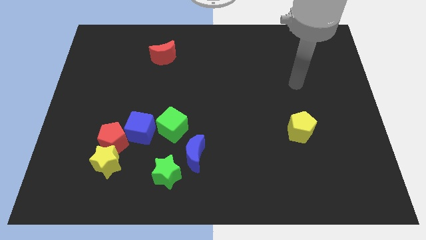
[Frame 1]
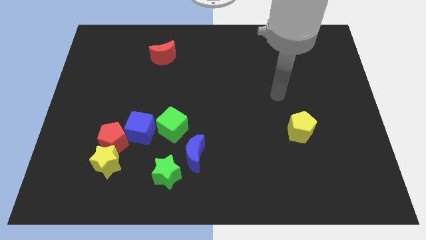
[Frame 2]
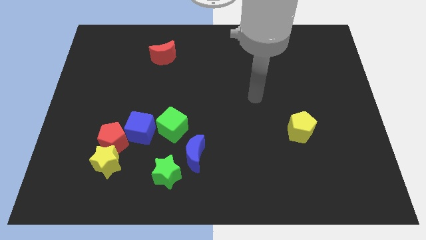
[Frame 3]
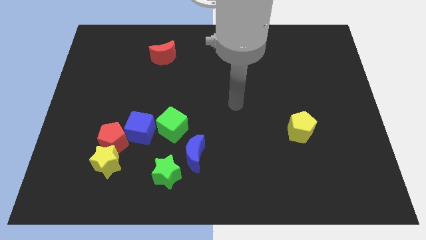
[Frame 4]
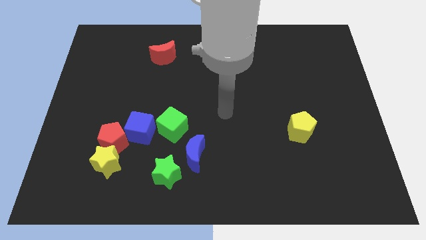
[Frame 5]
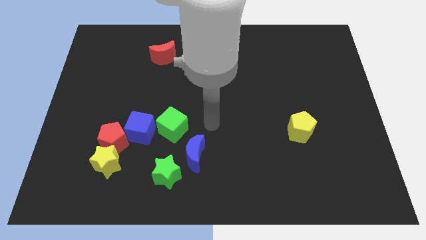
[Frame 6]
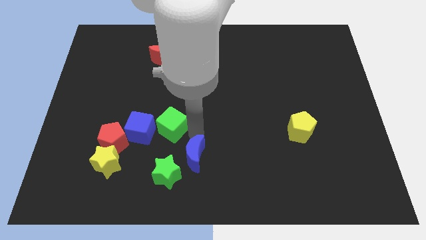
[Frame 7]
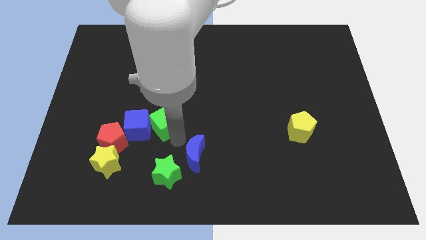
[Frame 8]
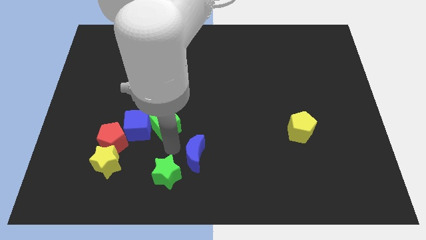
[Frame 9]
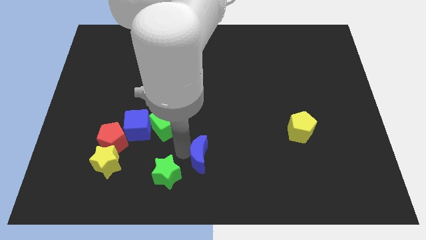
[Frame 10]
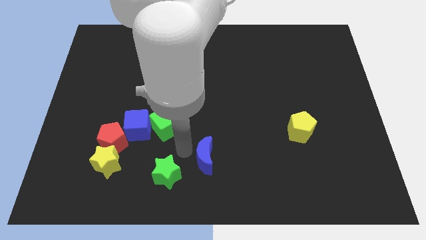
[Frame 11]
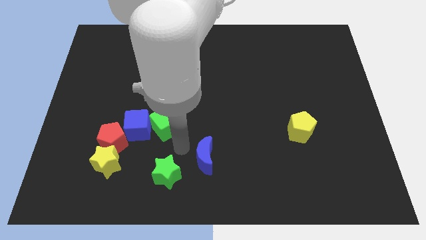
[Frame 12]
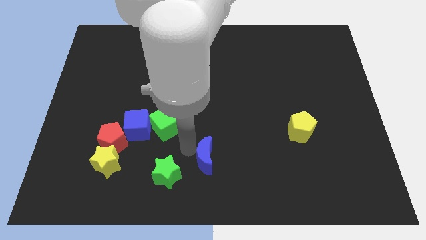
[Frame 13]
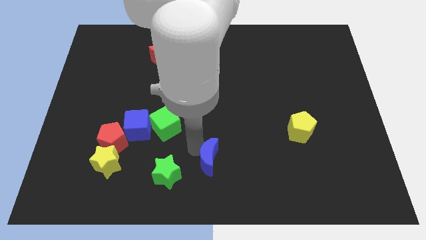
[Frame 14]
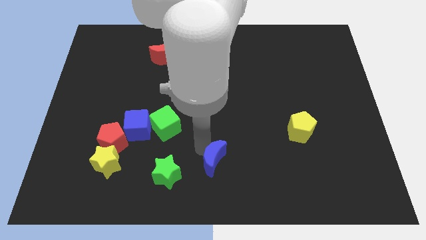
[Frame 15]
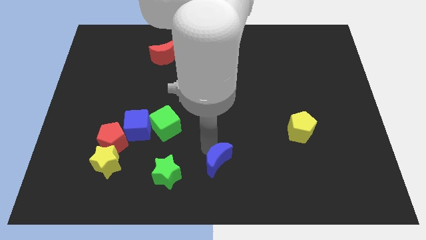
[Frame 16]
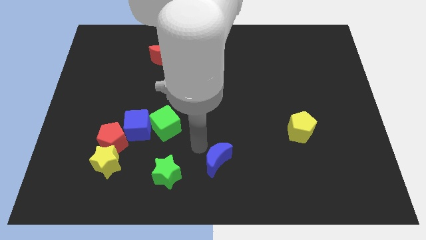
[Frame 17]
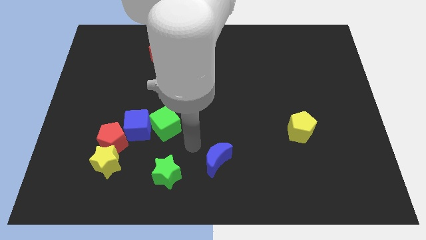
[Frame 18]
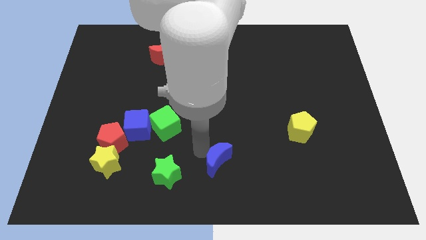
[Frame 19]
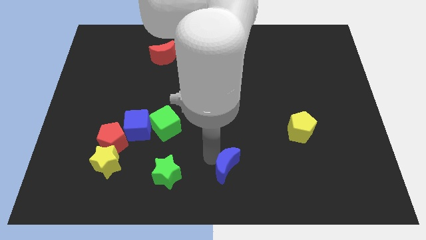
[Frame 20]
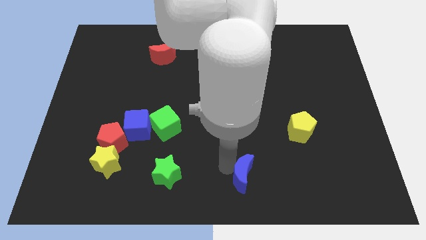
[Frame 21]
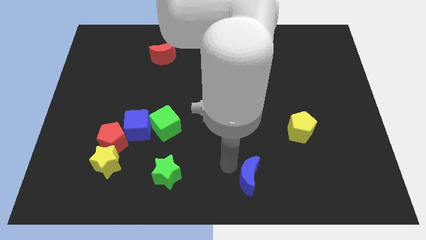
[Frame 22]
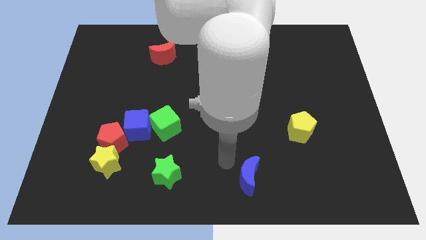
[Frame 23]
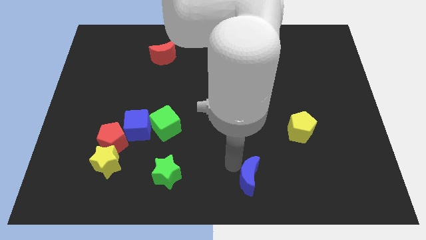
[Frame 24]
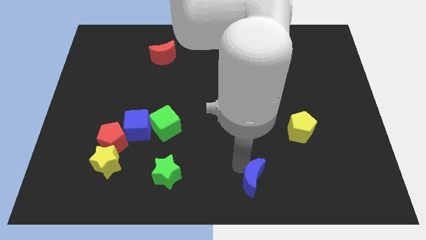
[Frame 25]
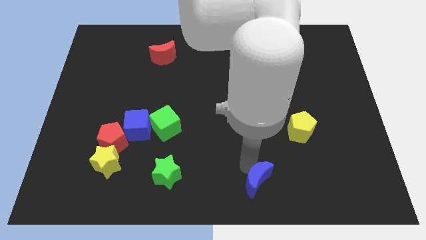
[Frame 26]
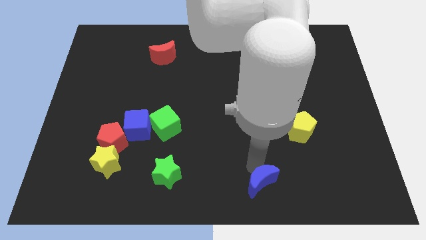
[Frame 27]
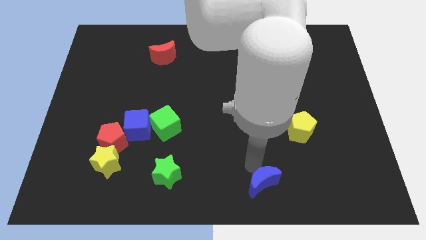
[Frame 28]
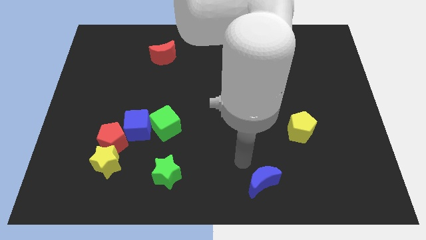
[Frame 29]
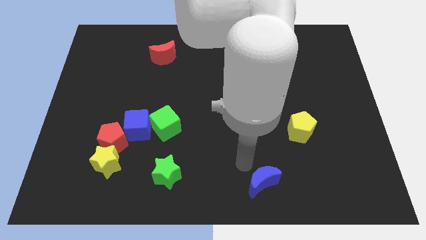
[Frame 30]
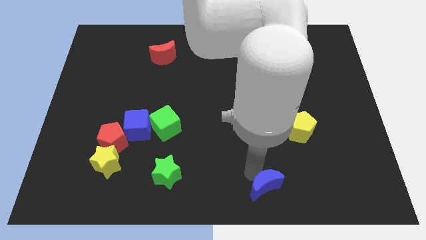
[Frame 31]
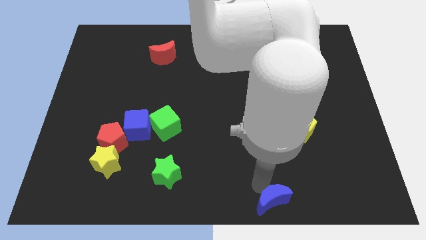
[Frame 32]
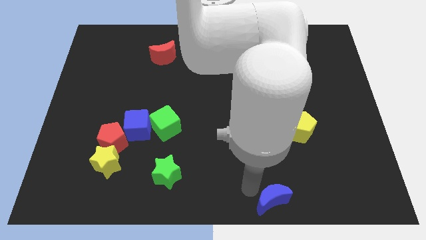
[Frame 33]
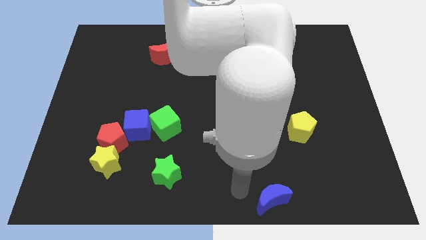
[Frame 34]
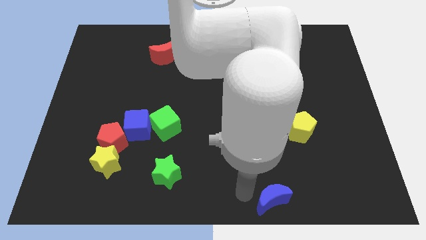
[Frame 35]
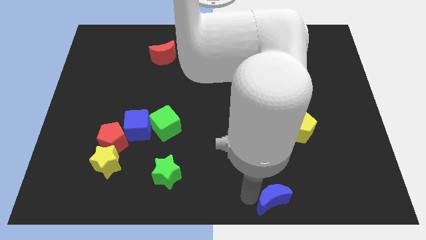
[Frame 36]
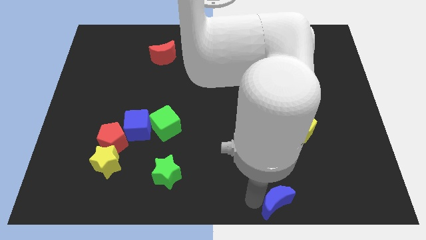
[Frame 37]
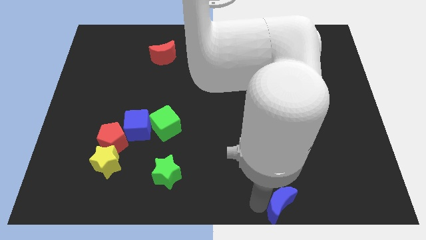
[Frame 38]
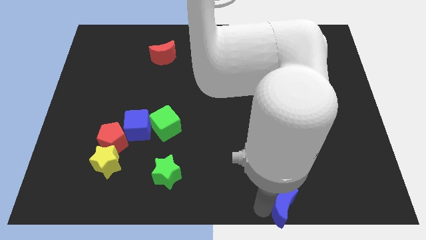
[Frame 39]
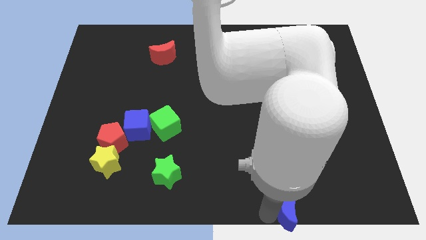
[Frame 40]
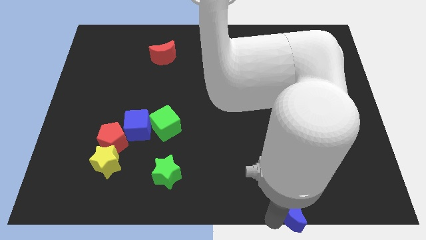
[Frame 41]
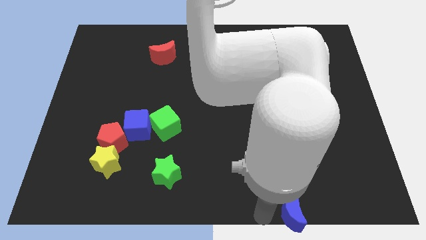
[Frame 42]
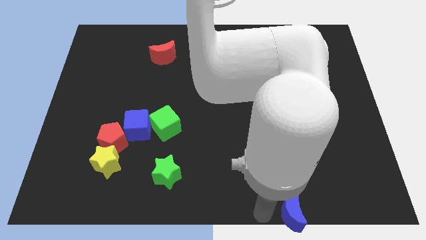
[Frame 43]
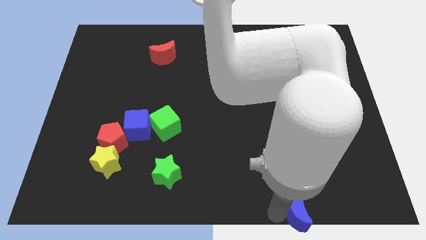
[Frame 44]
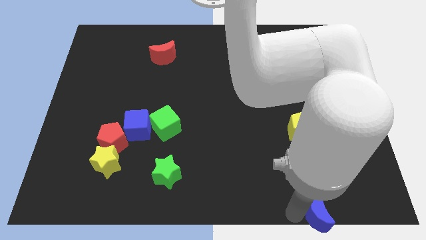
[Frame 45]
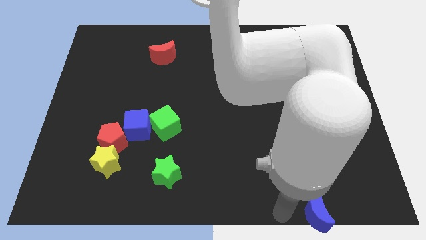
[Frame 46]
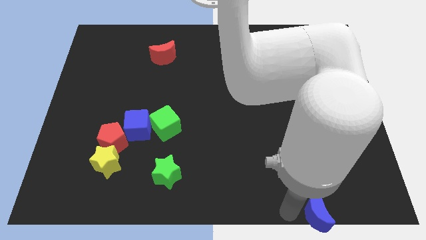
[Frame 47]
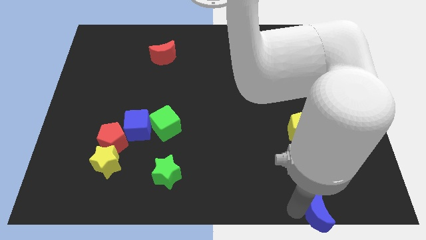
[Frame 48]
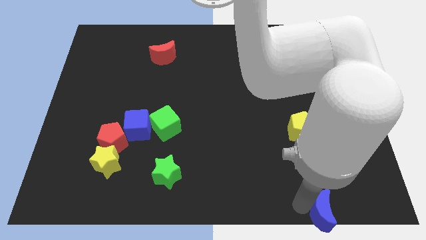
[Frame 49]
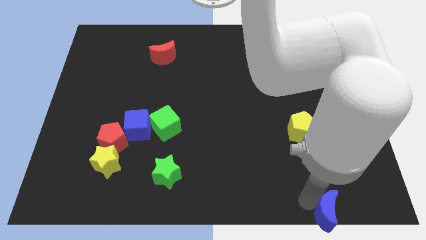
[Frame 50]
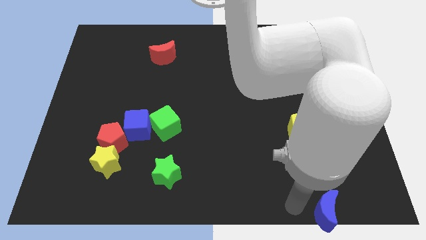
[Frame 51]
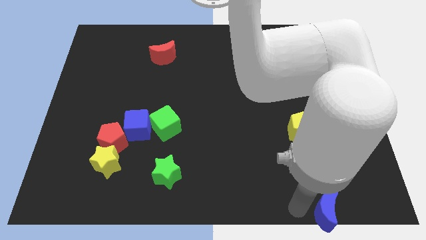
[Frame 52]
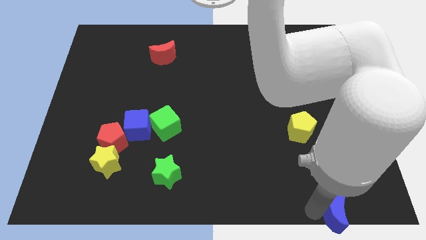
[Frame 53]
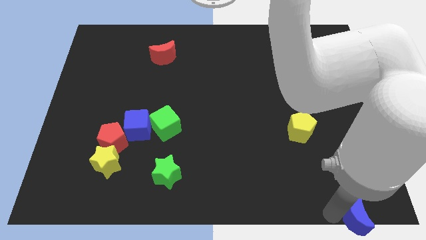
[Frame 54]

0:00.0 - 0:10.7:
put the blue moon to the bottom right of the board

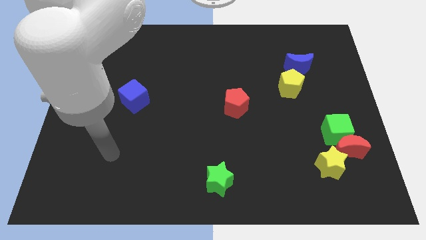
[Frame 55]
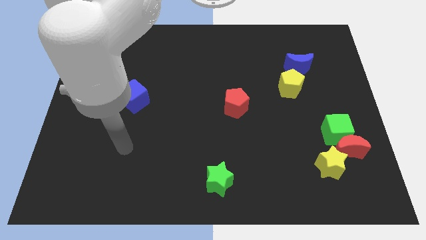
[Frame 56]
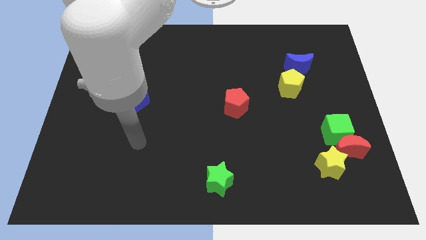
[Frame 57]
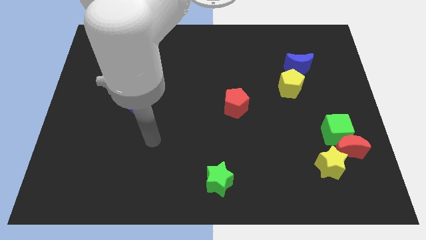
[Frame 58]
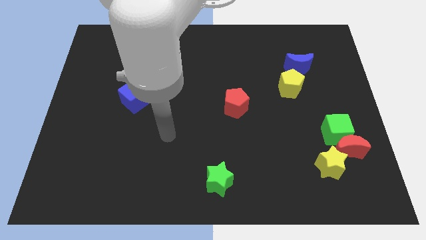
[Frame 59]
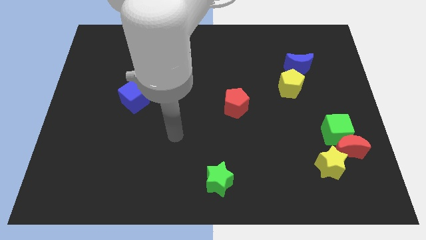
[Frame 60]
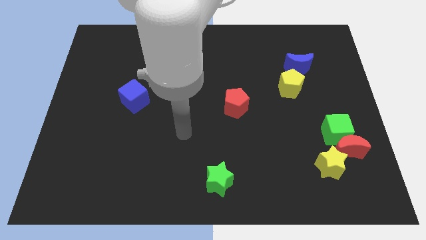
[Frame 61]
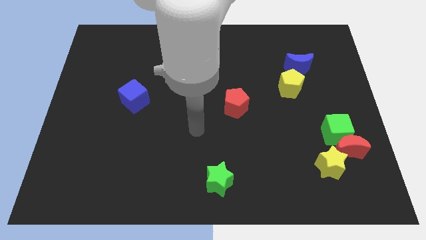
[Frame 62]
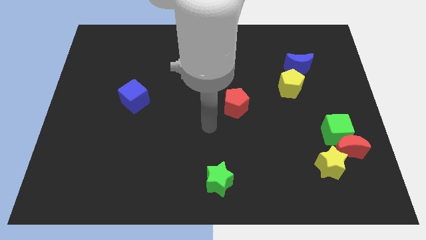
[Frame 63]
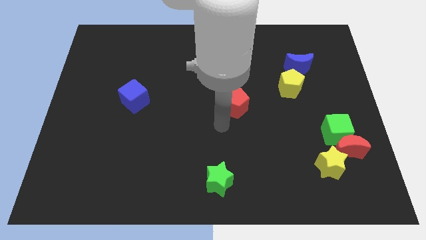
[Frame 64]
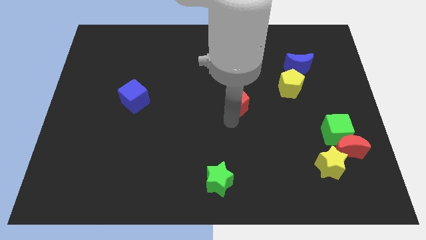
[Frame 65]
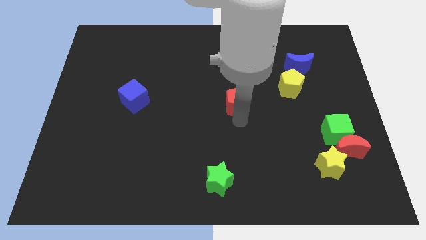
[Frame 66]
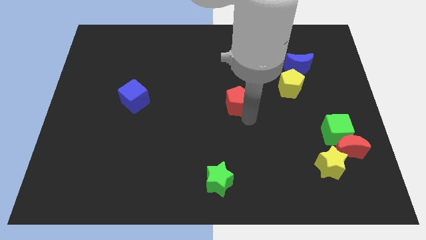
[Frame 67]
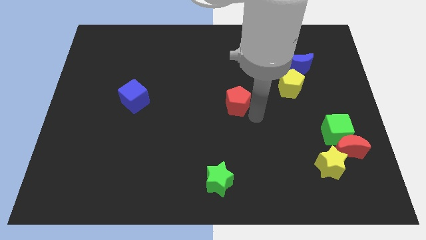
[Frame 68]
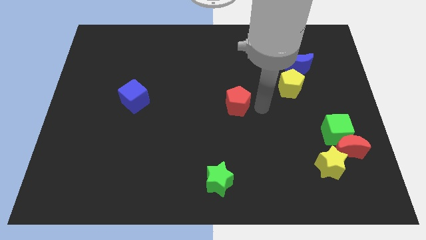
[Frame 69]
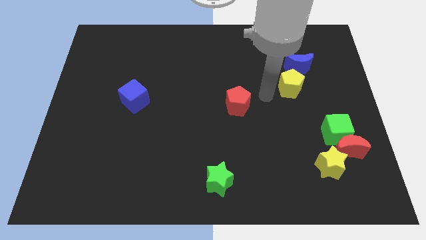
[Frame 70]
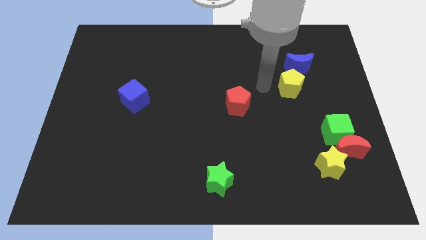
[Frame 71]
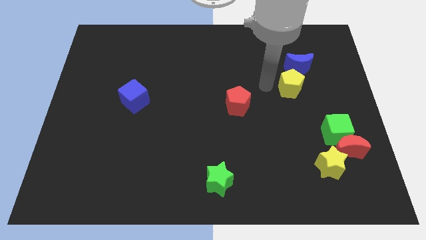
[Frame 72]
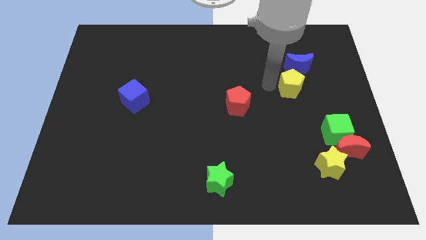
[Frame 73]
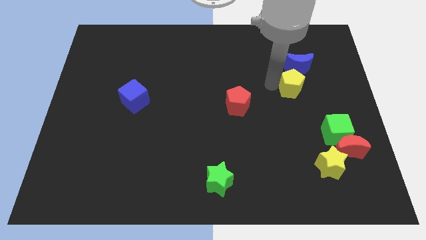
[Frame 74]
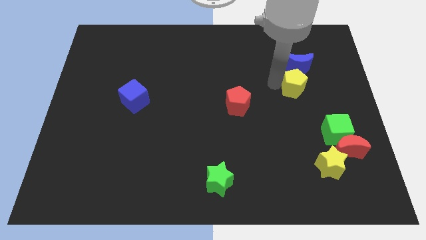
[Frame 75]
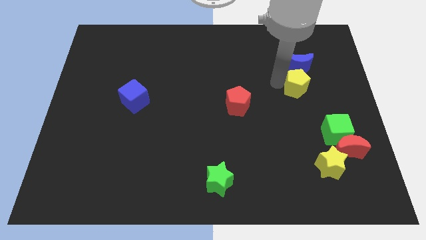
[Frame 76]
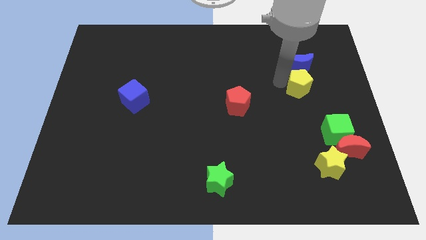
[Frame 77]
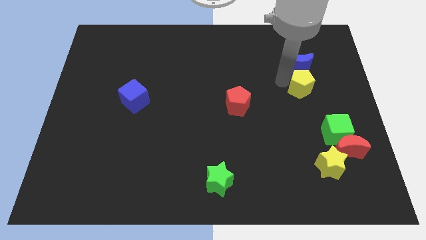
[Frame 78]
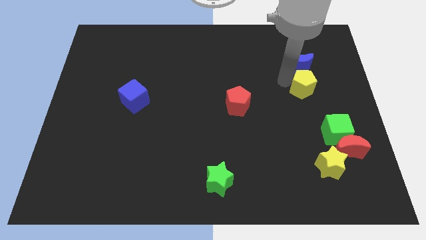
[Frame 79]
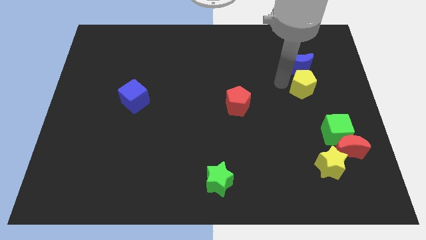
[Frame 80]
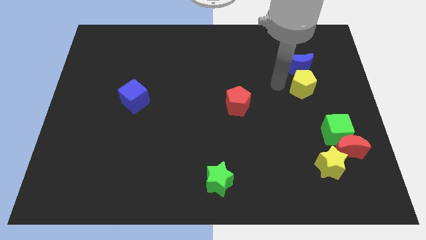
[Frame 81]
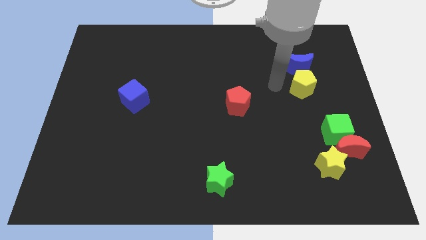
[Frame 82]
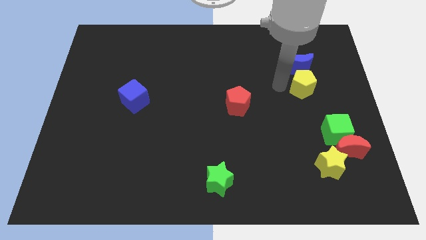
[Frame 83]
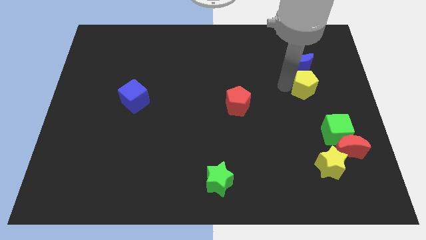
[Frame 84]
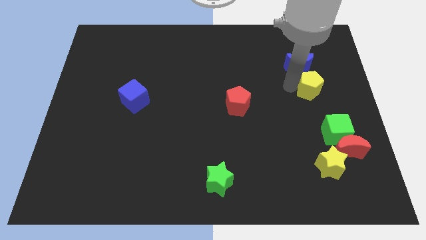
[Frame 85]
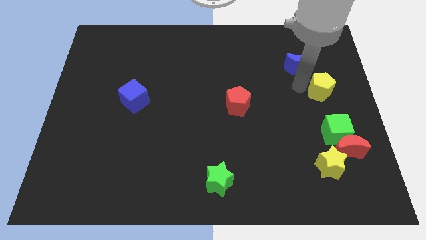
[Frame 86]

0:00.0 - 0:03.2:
push the yellow pentagon to the center right
